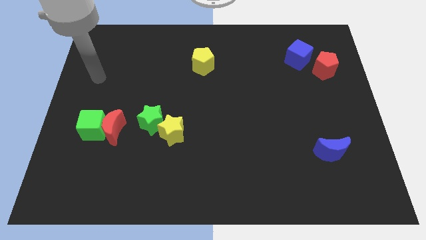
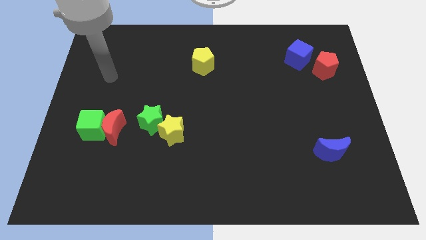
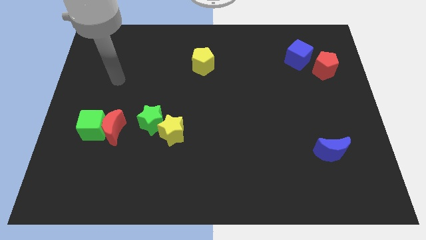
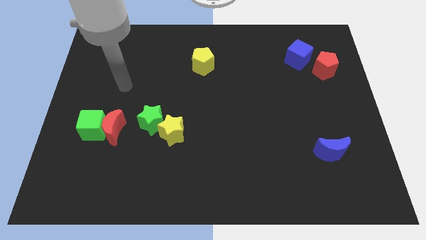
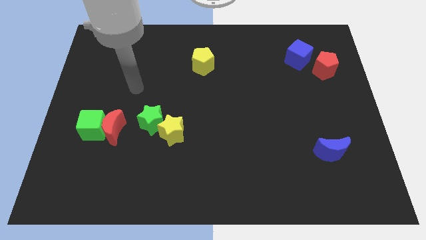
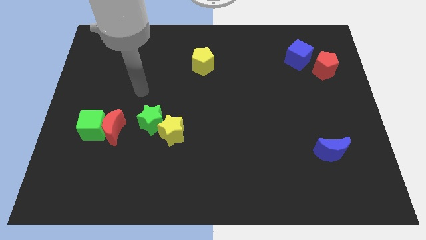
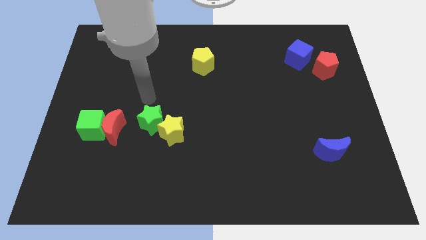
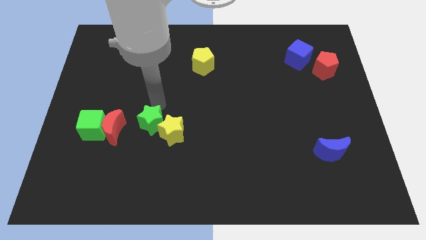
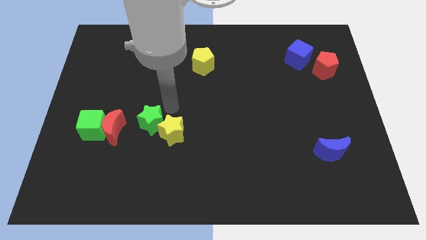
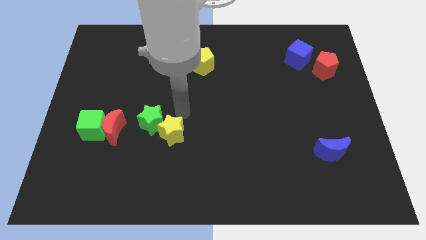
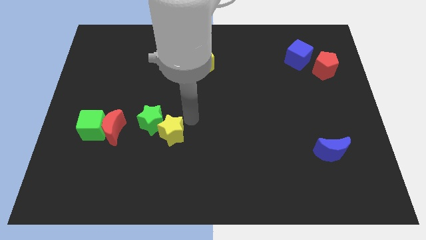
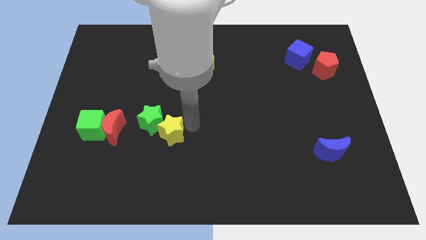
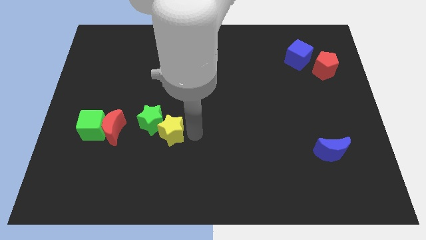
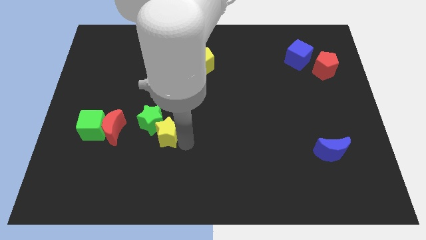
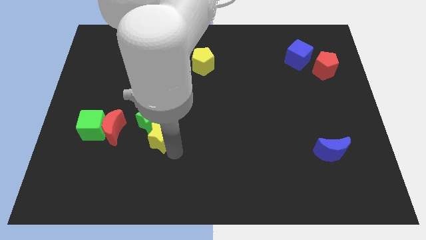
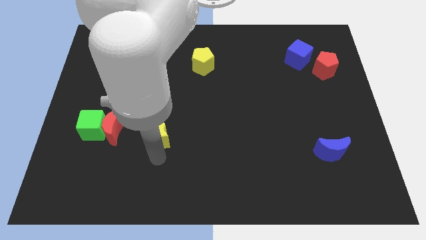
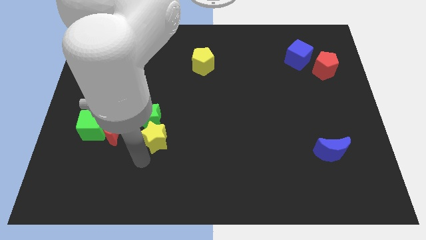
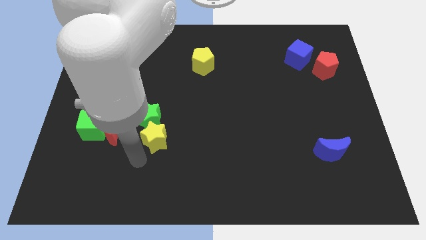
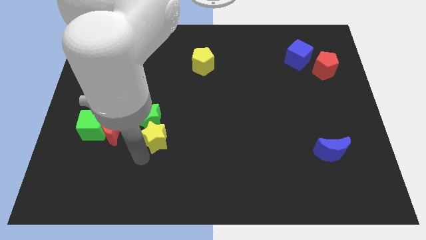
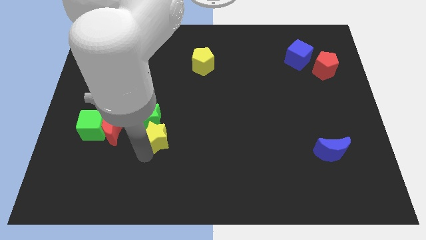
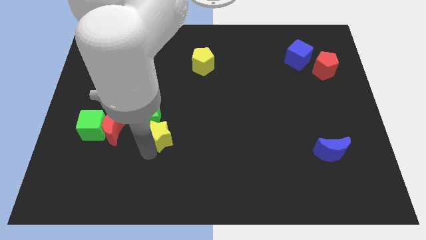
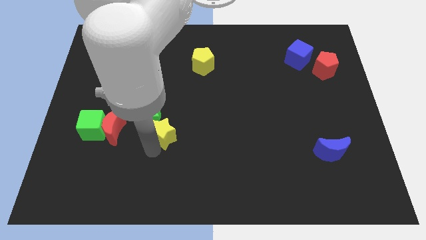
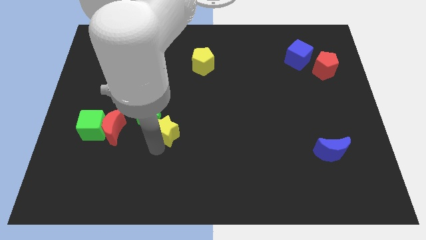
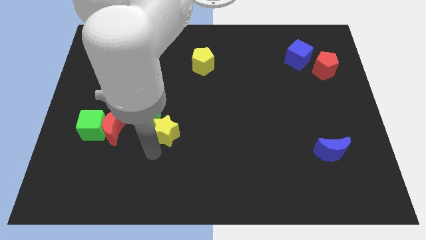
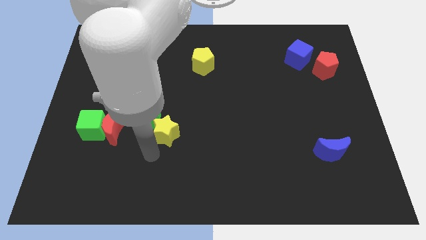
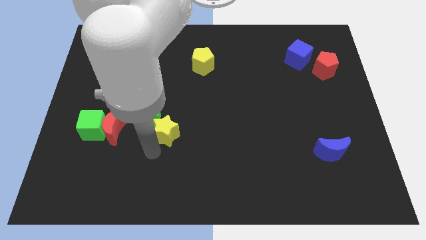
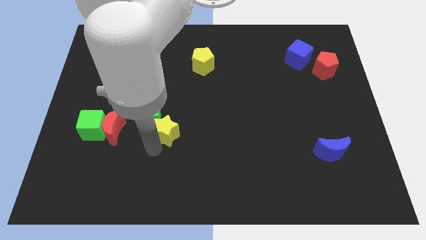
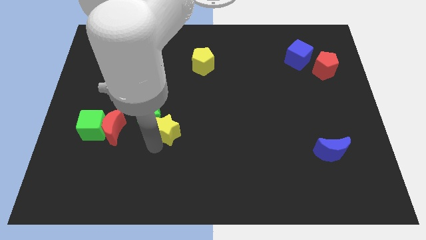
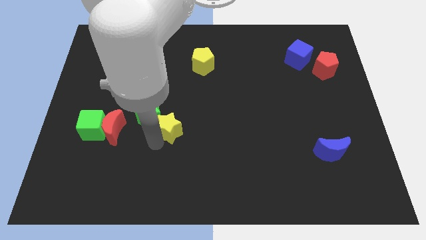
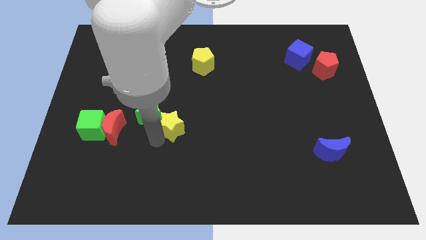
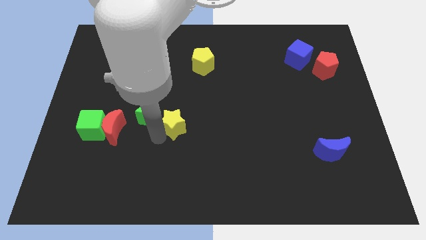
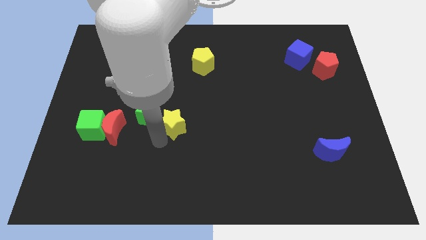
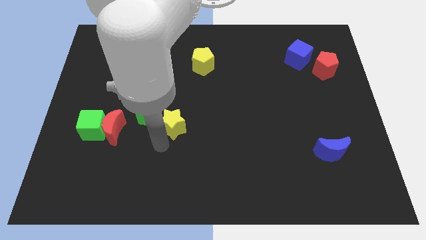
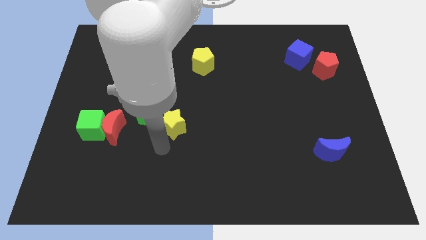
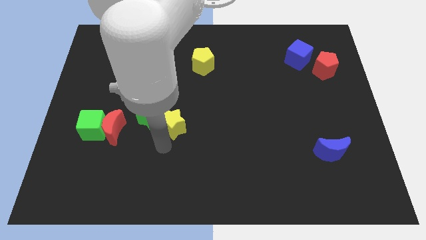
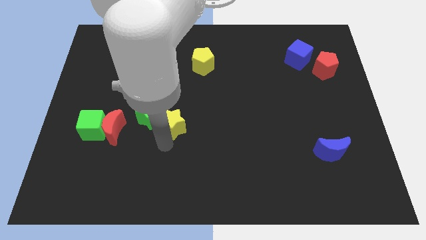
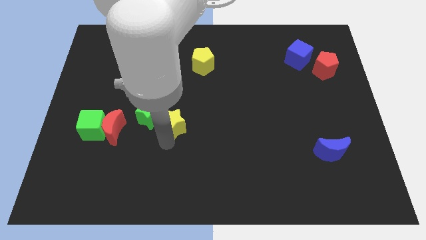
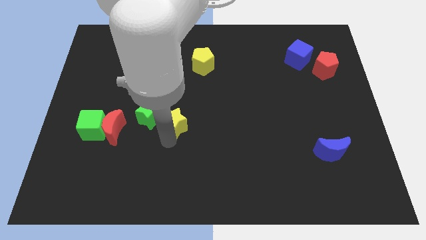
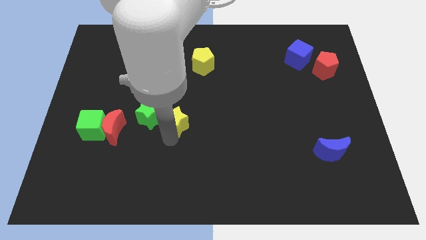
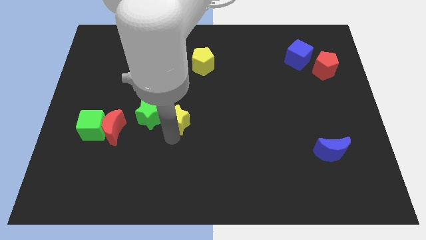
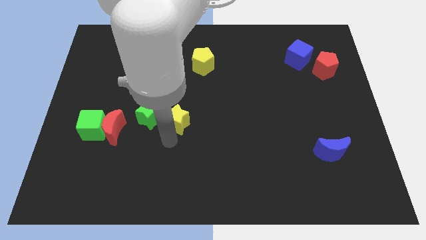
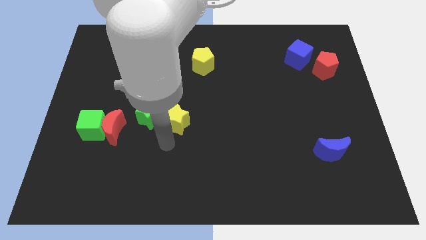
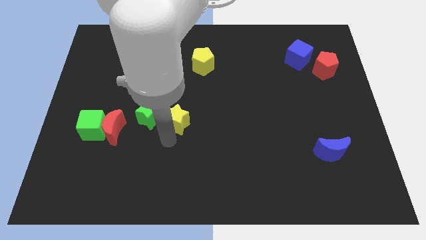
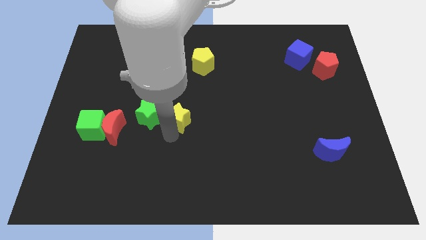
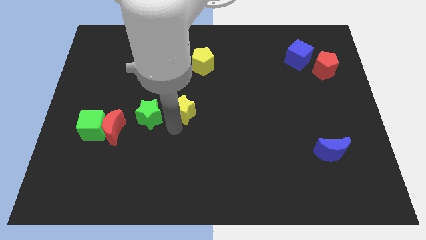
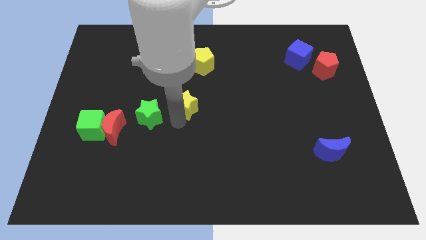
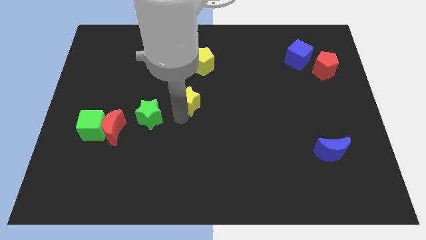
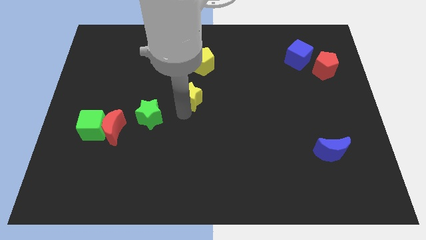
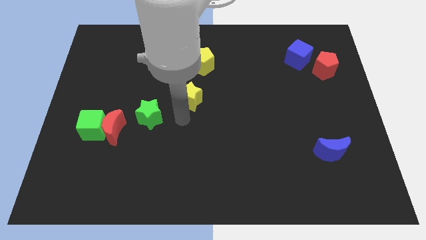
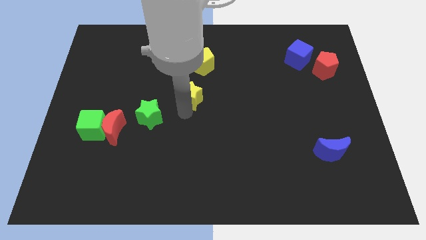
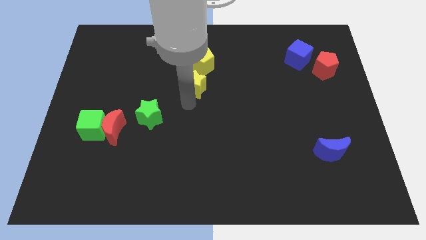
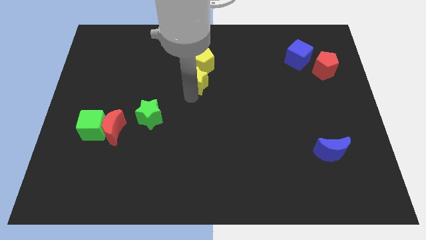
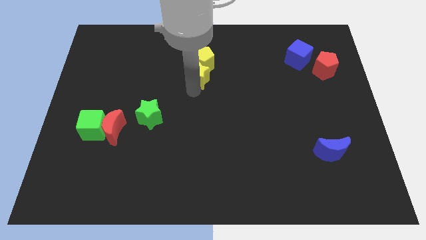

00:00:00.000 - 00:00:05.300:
push the yellow star towards the yellow pentagon

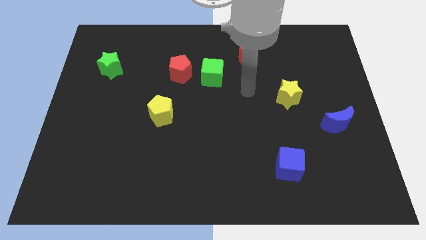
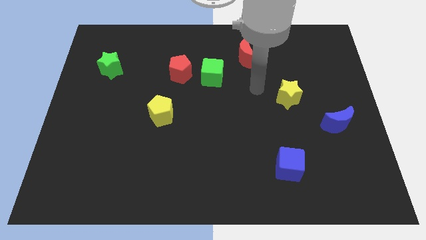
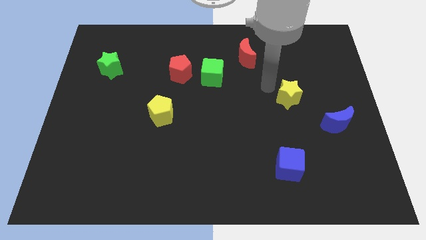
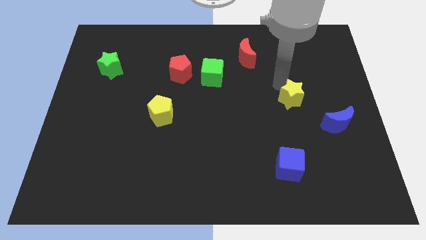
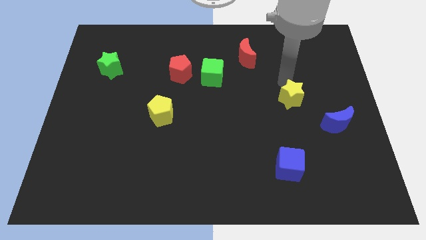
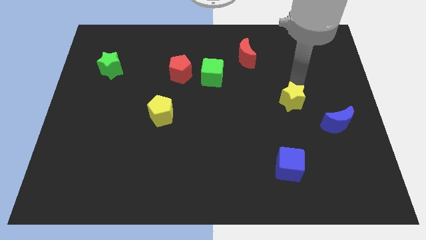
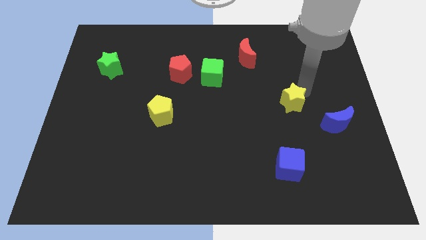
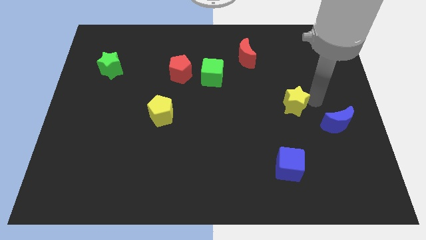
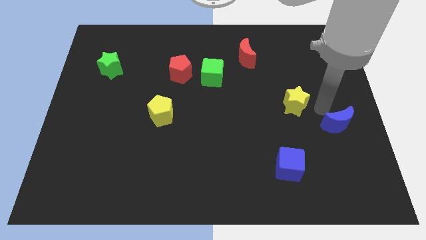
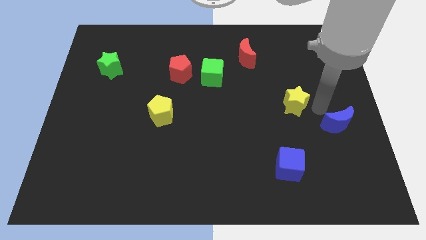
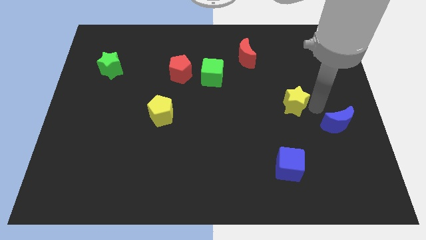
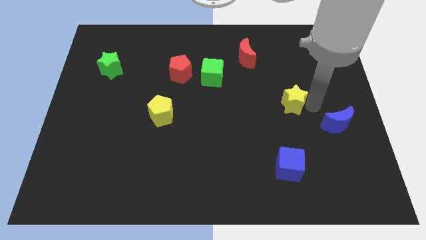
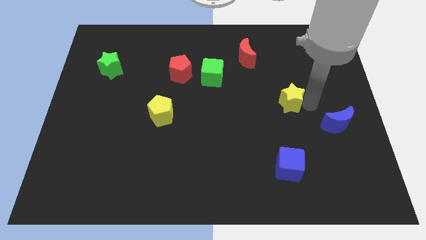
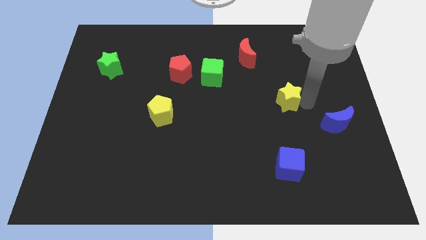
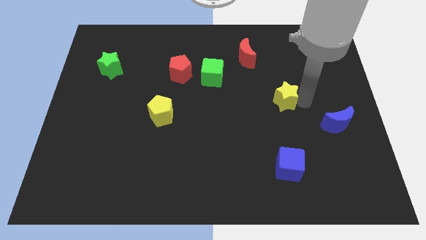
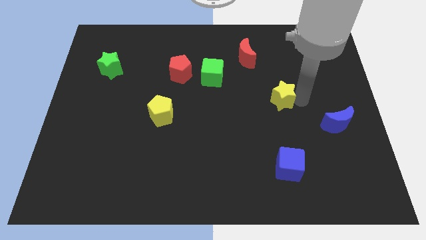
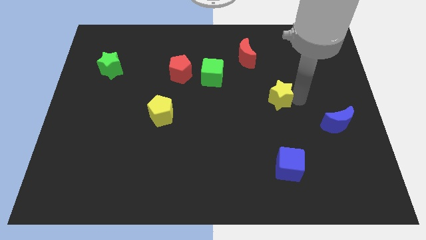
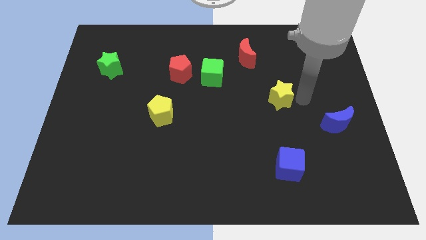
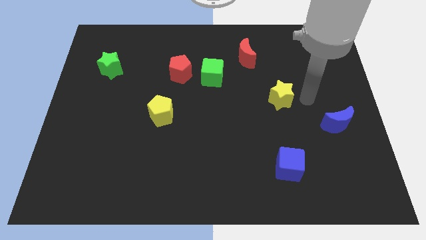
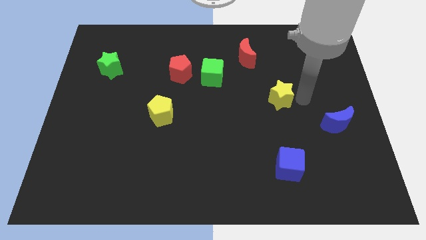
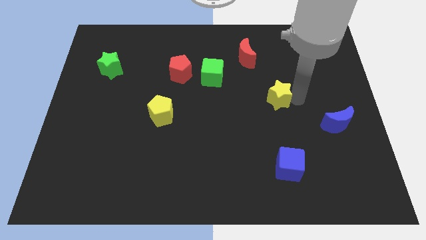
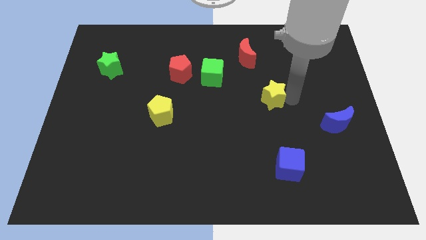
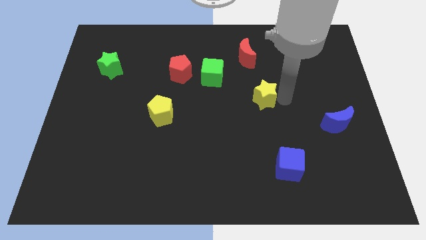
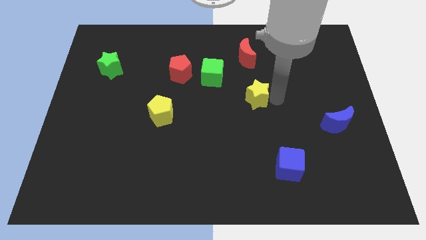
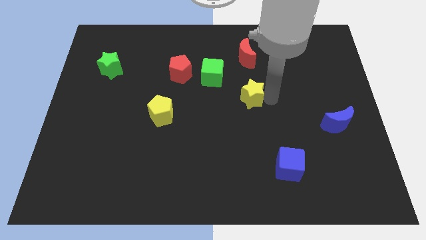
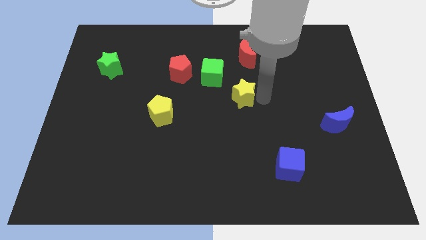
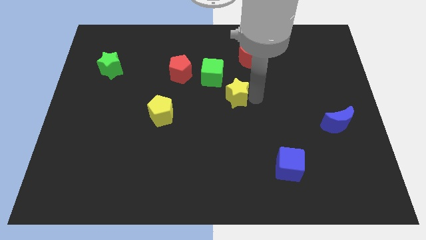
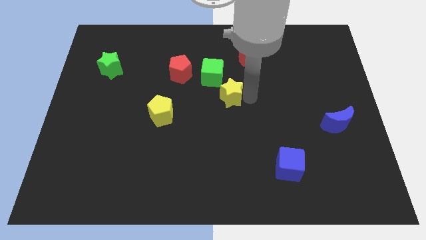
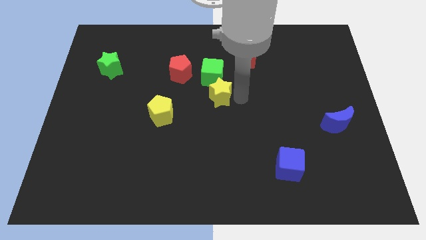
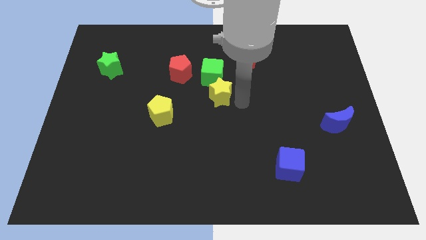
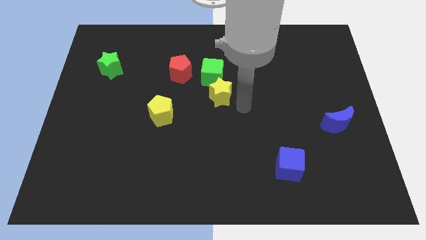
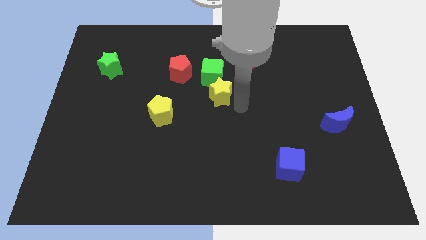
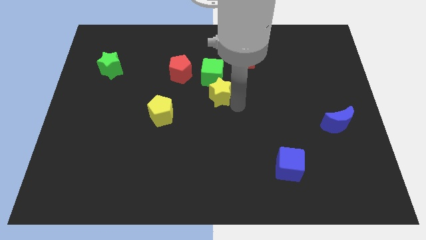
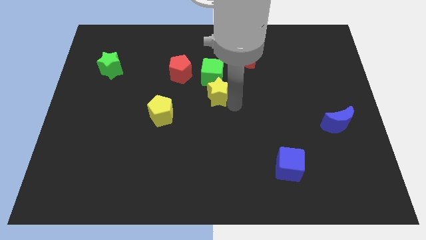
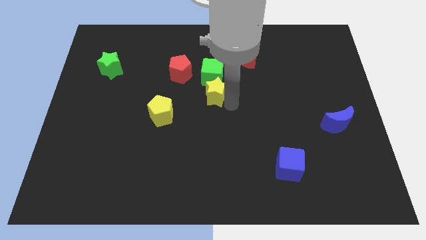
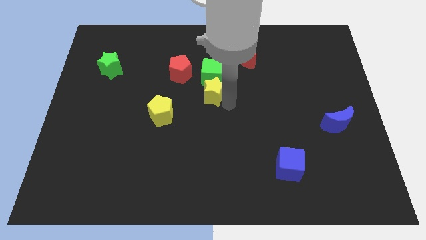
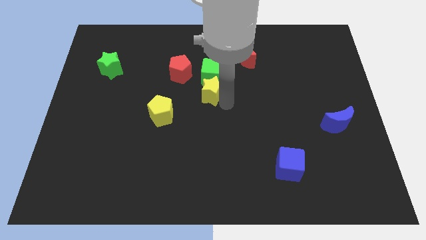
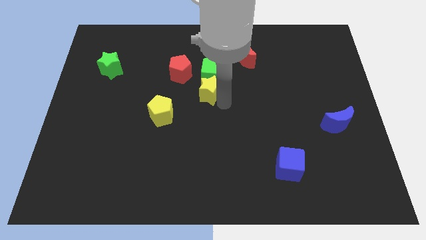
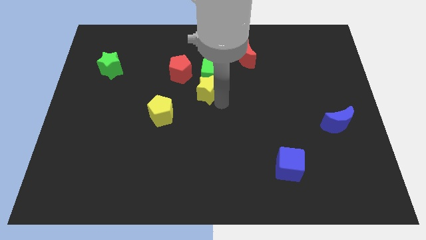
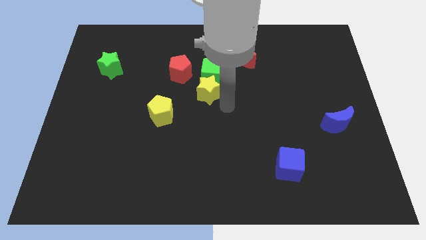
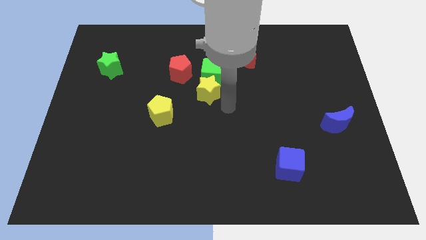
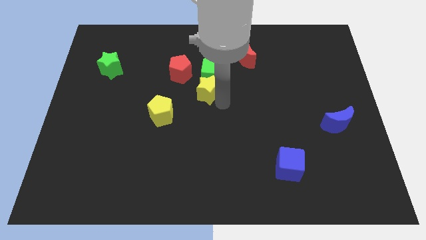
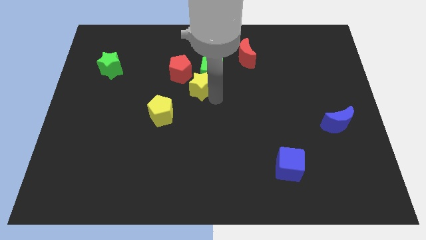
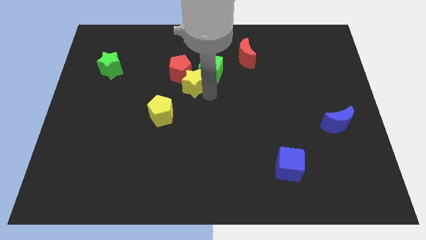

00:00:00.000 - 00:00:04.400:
put the yellow star towards the red pentagon
